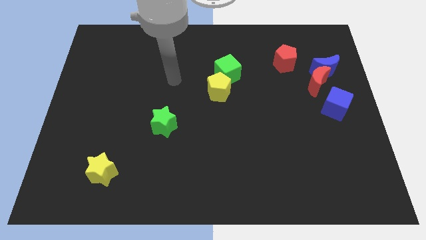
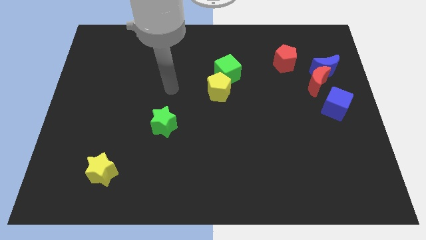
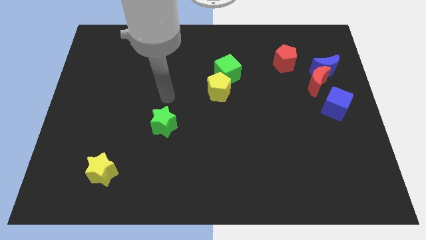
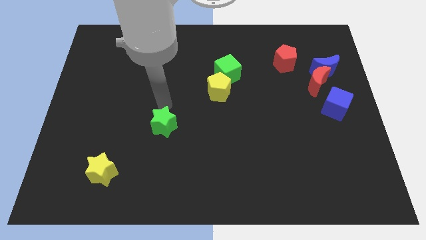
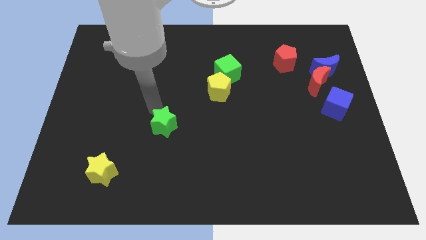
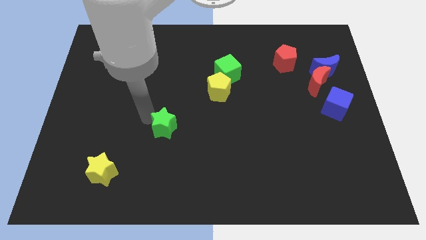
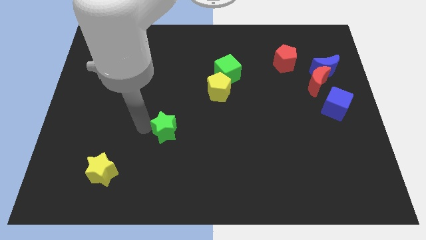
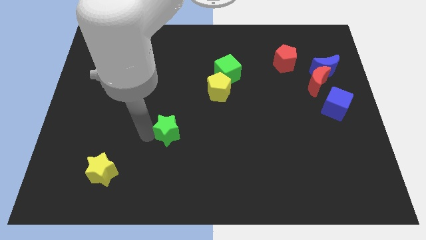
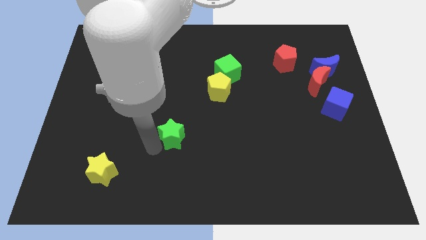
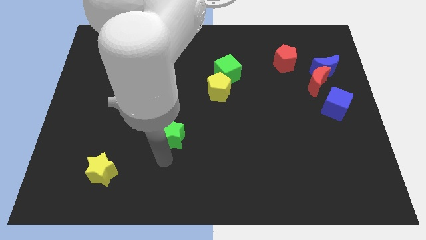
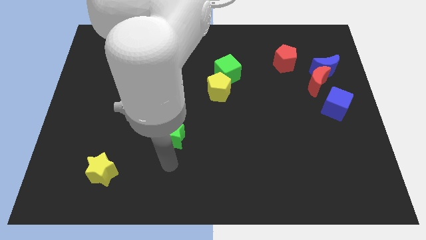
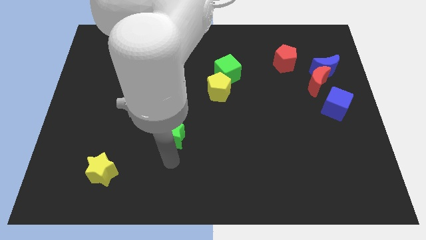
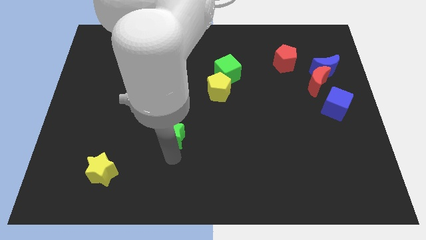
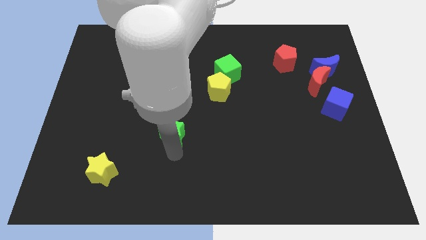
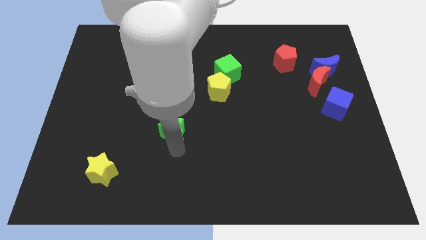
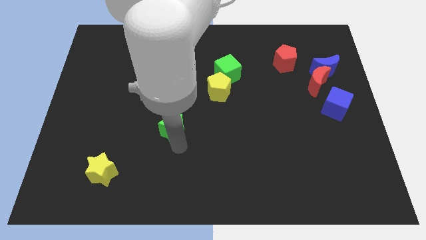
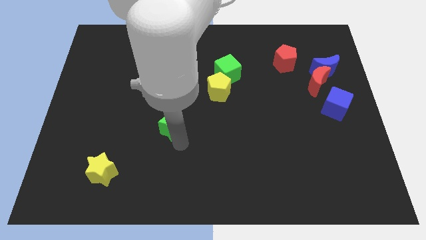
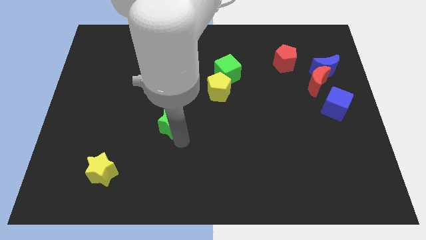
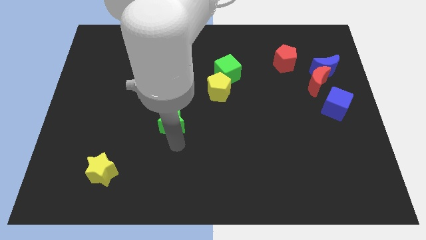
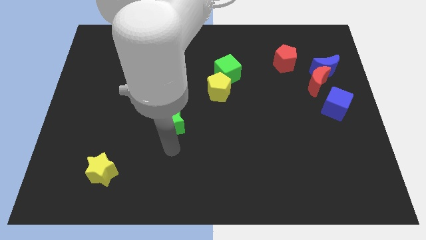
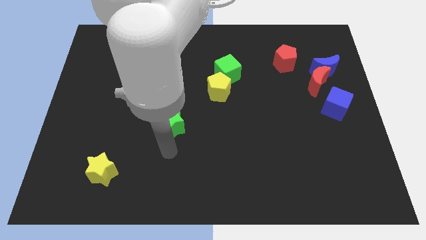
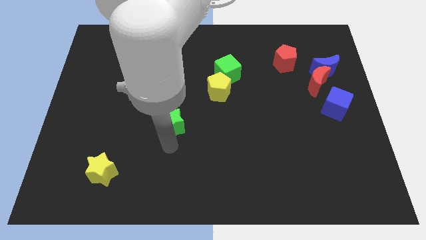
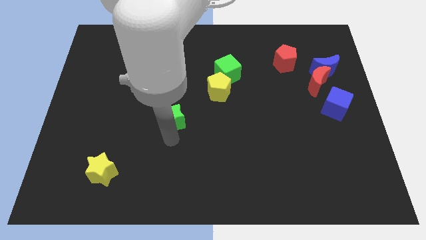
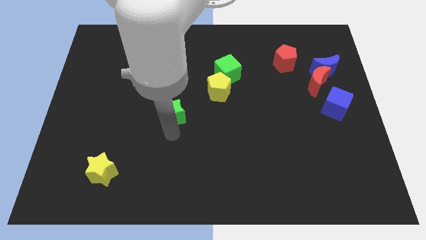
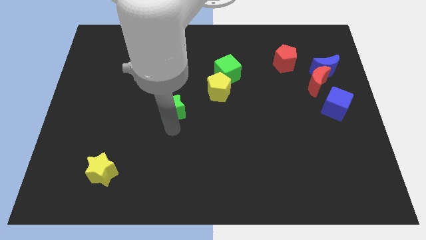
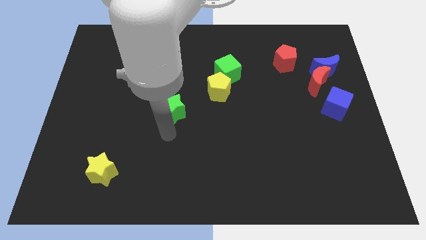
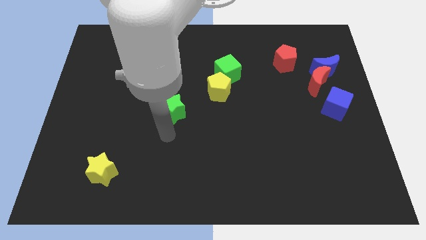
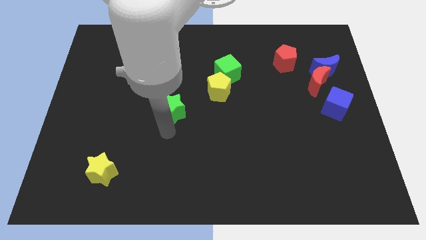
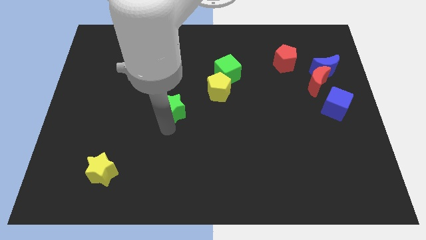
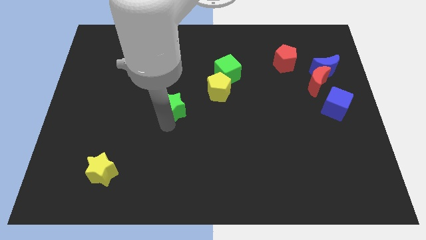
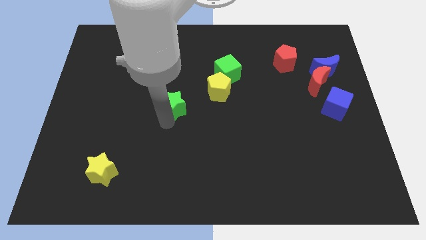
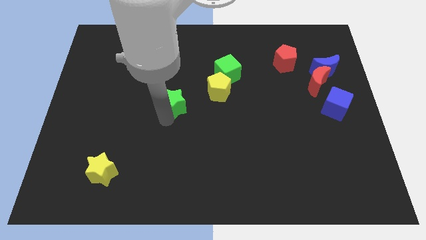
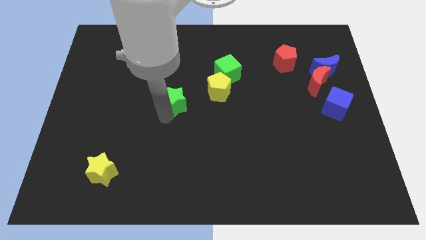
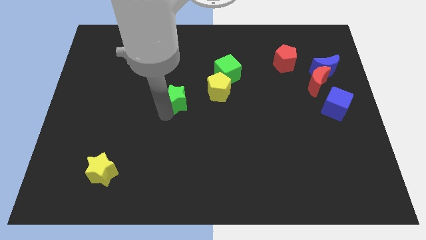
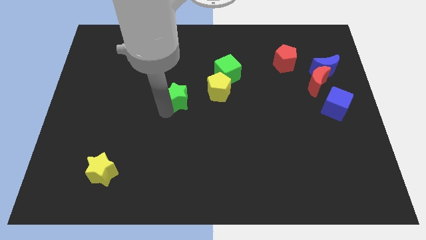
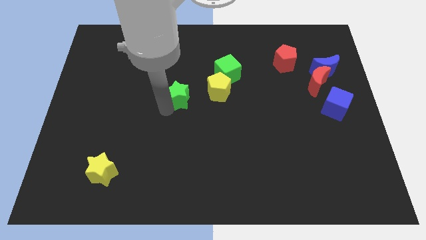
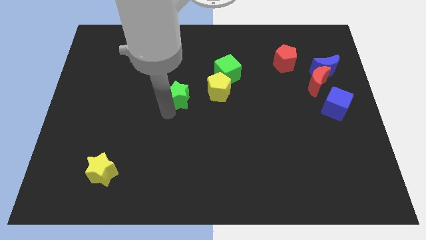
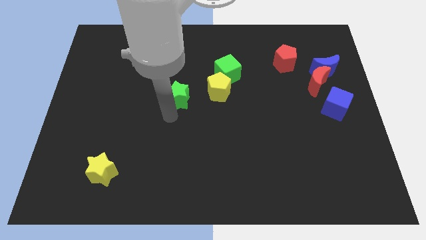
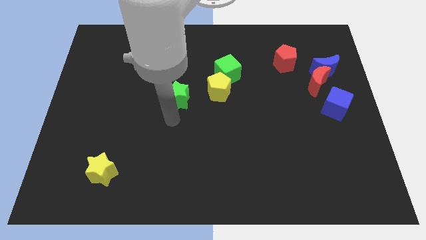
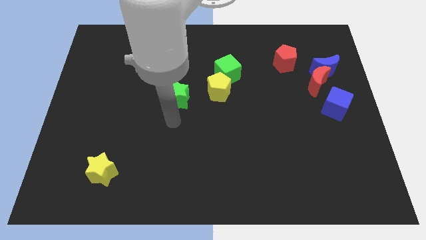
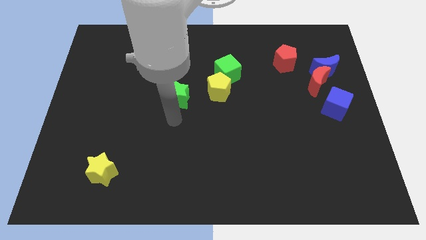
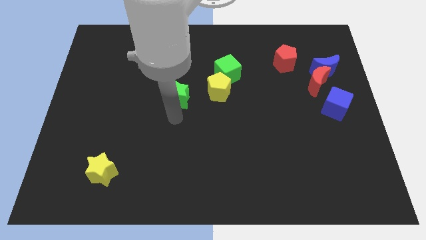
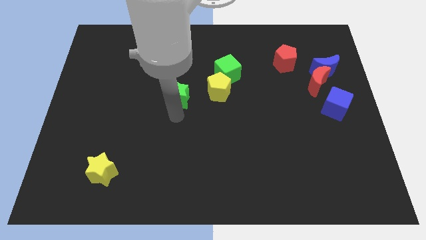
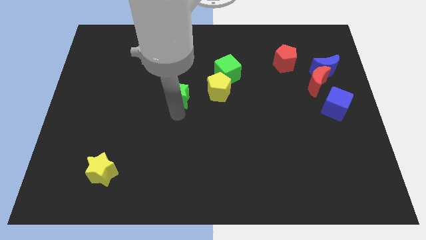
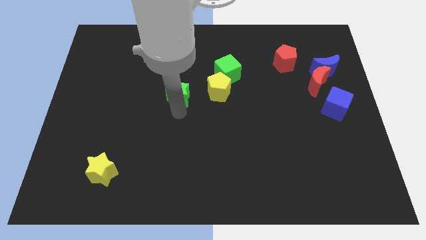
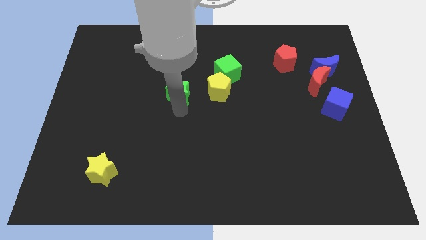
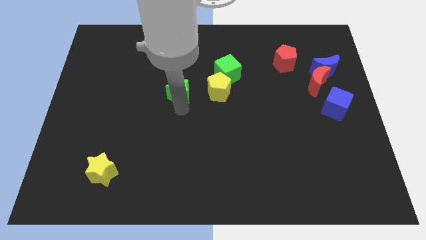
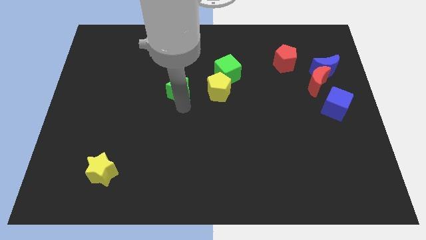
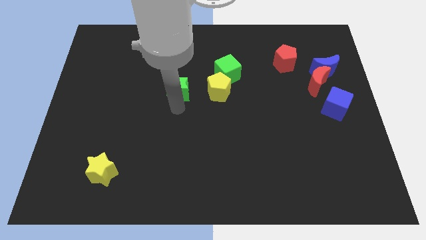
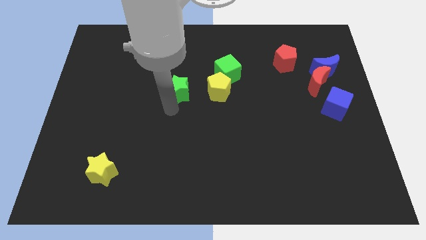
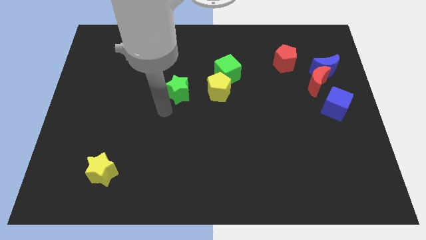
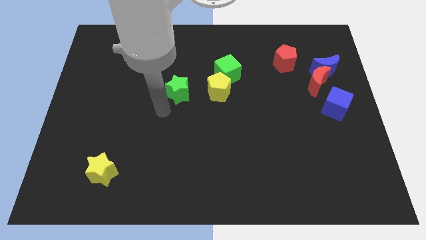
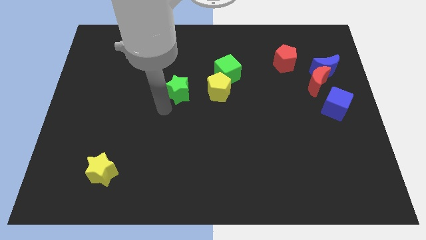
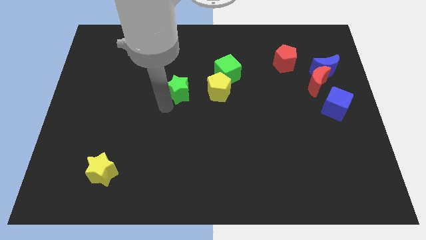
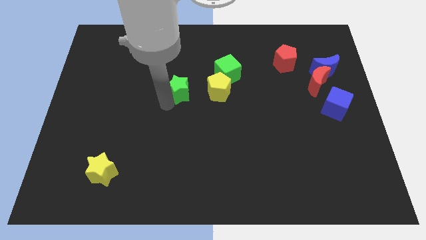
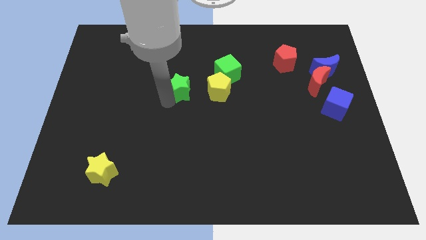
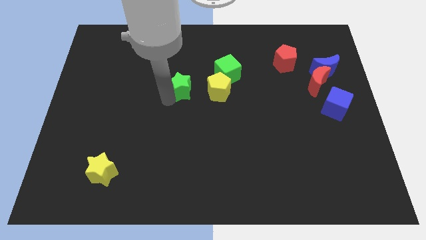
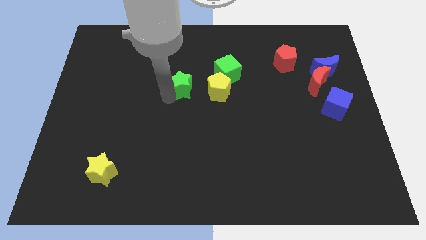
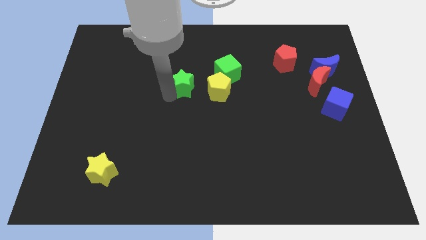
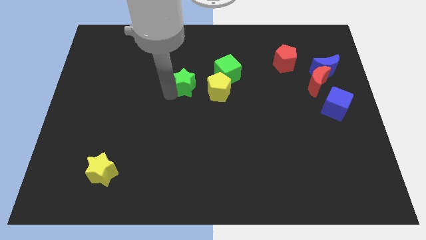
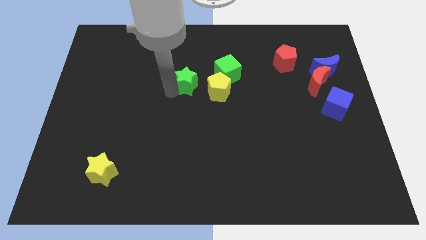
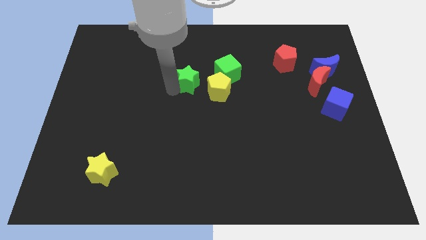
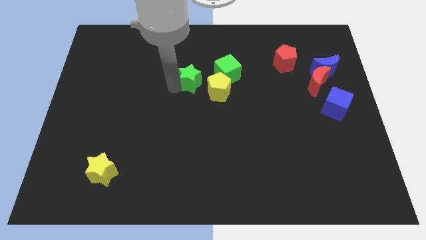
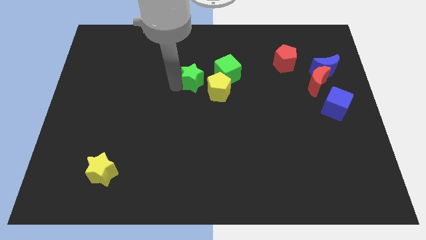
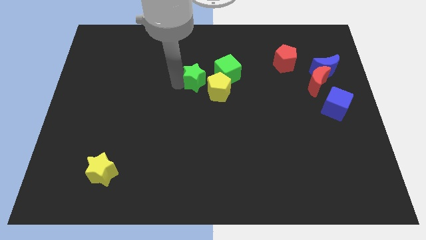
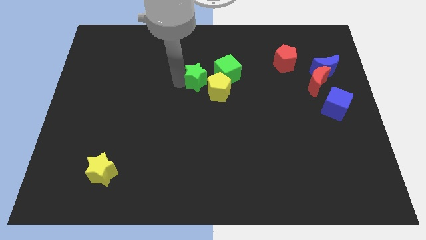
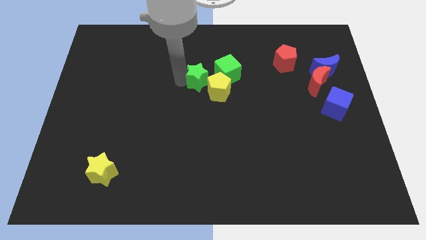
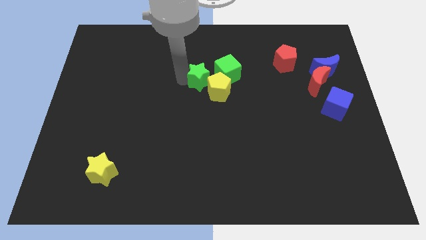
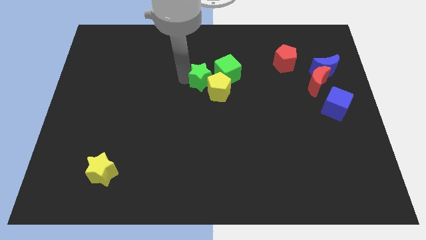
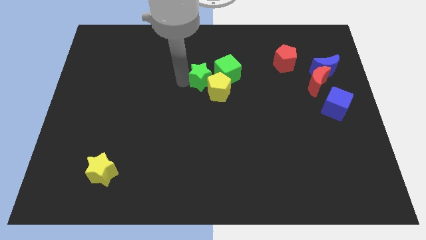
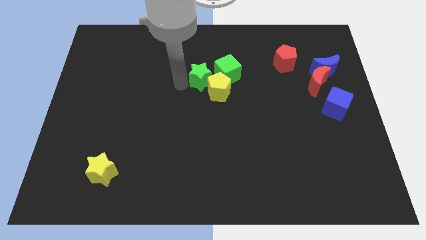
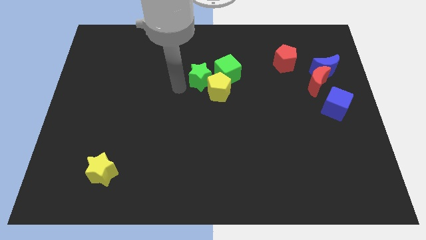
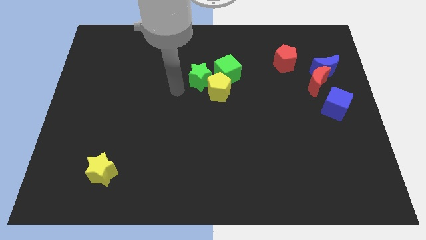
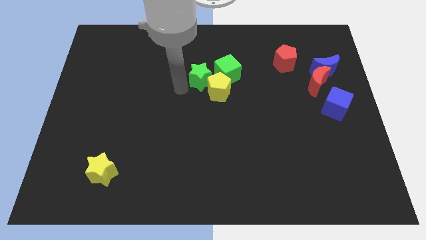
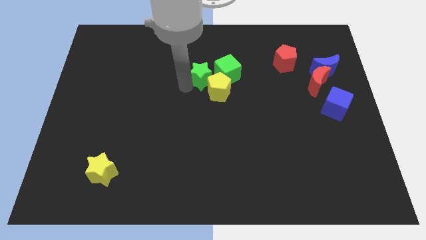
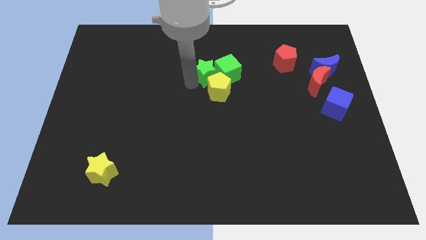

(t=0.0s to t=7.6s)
push the green star towards the green cube
